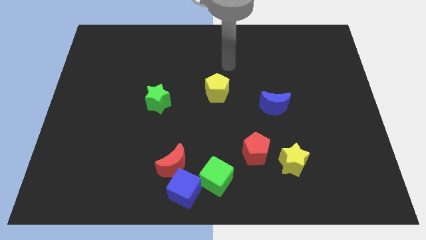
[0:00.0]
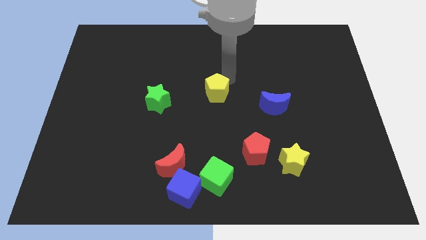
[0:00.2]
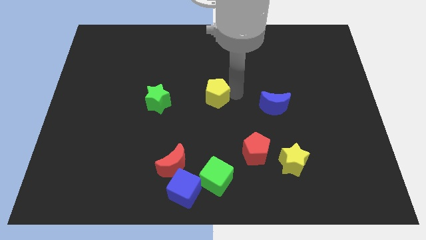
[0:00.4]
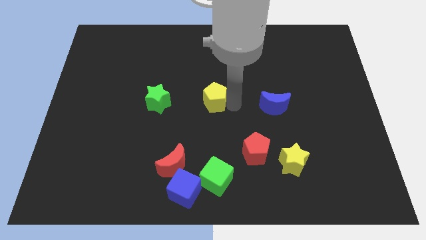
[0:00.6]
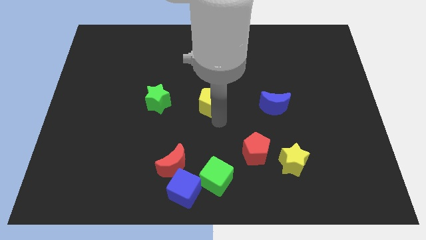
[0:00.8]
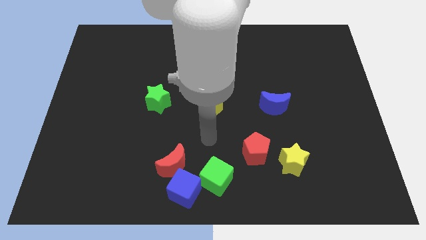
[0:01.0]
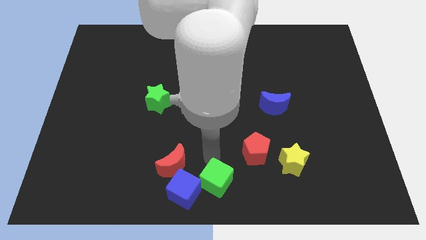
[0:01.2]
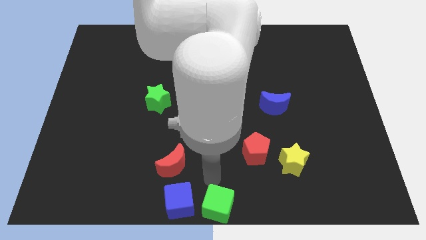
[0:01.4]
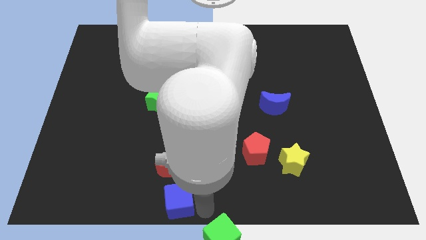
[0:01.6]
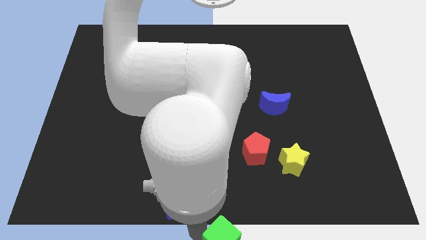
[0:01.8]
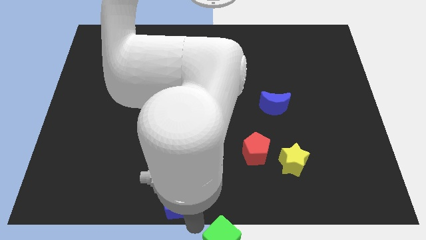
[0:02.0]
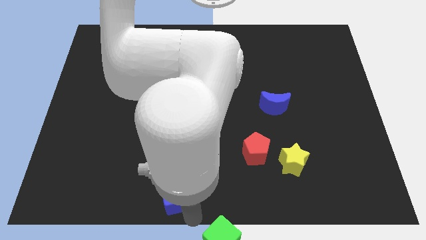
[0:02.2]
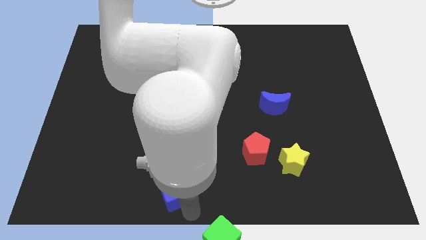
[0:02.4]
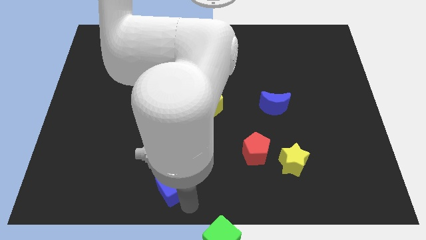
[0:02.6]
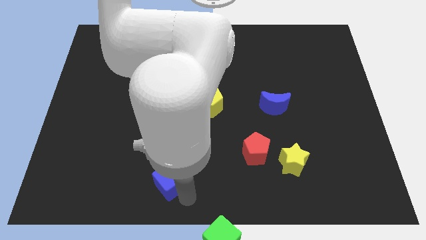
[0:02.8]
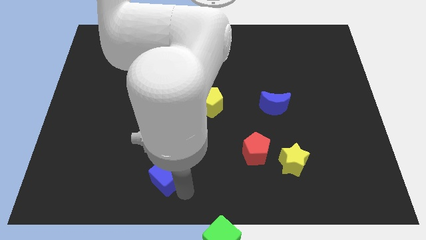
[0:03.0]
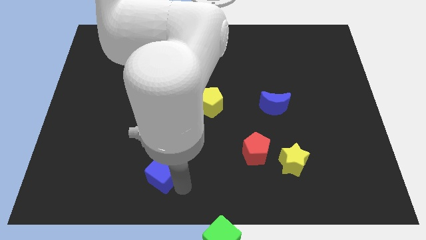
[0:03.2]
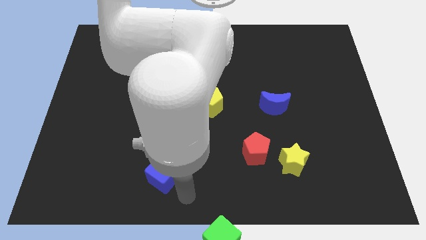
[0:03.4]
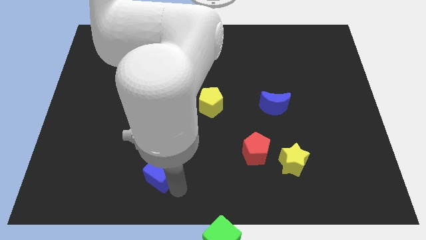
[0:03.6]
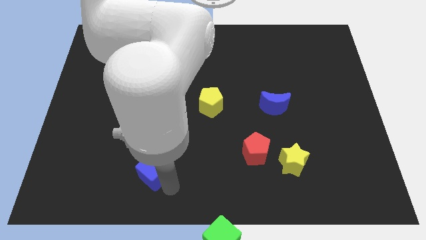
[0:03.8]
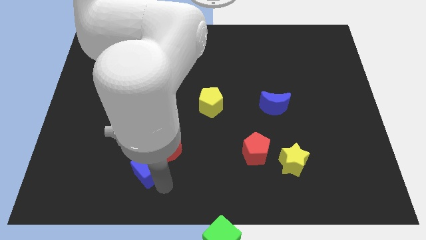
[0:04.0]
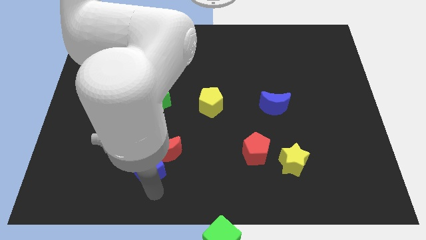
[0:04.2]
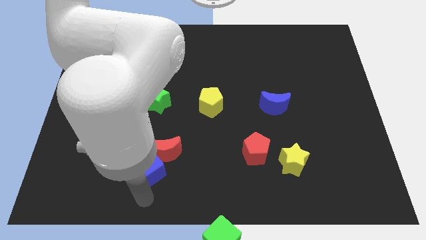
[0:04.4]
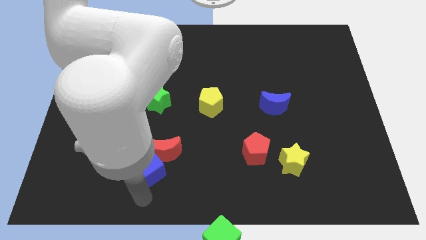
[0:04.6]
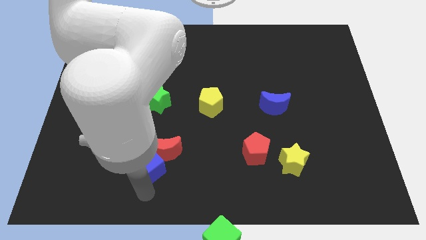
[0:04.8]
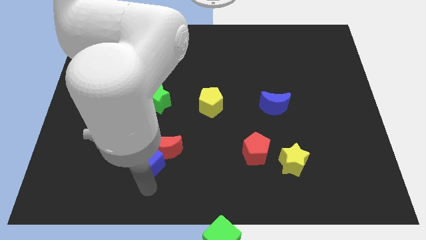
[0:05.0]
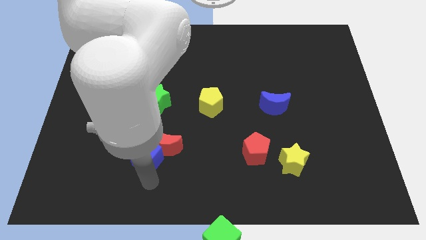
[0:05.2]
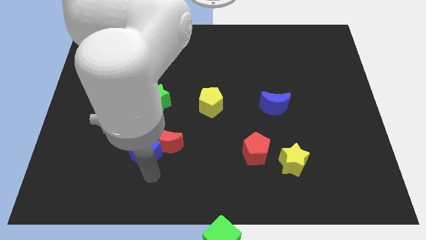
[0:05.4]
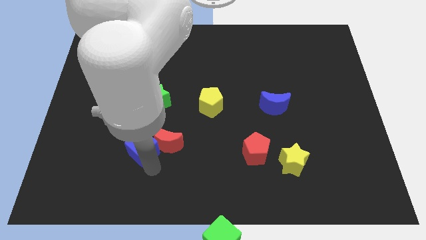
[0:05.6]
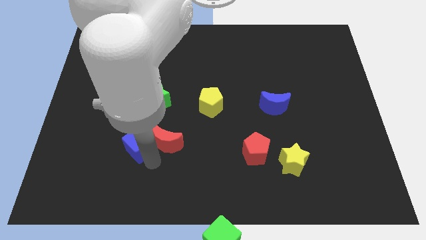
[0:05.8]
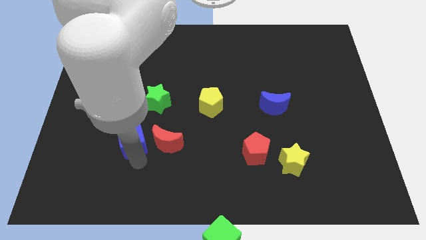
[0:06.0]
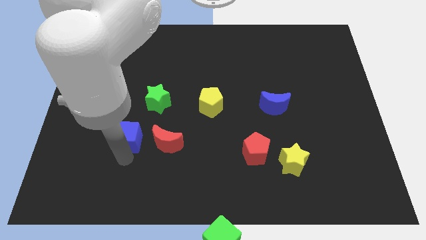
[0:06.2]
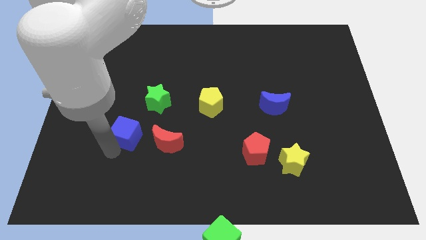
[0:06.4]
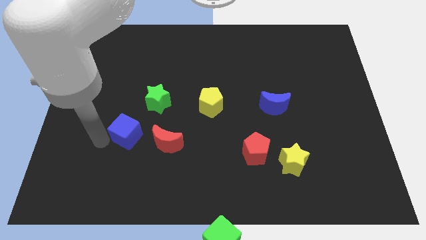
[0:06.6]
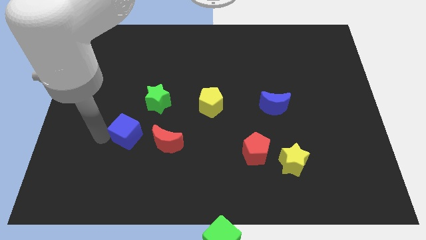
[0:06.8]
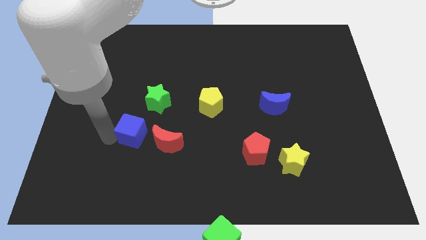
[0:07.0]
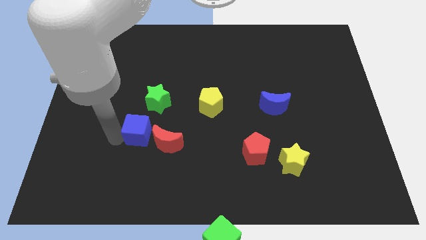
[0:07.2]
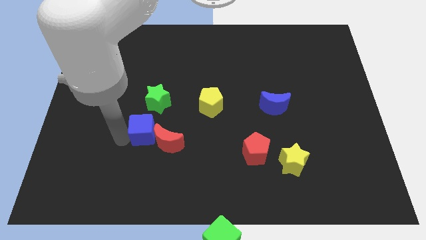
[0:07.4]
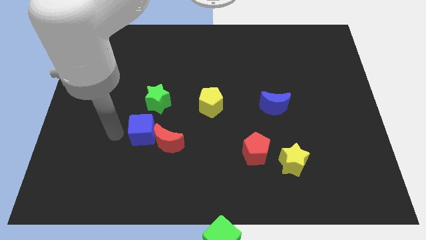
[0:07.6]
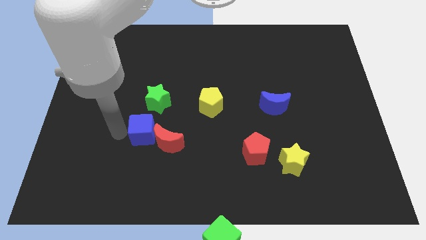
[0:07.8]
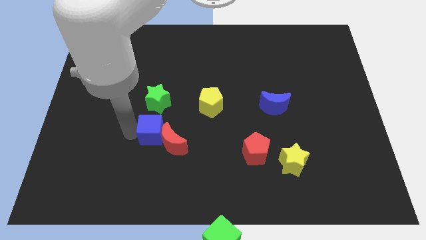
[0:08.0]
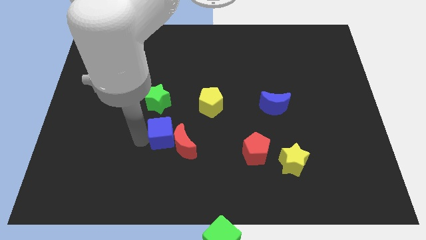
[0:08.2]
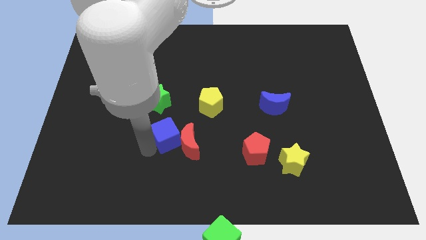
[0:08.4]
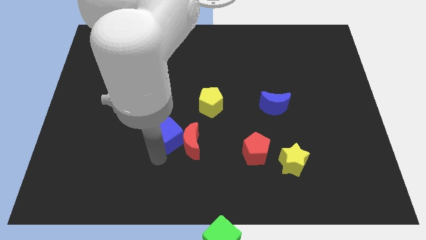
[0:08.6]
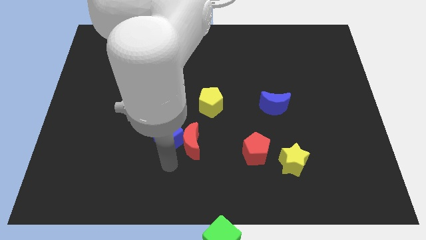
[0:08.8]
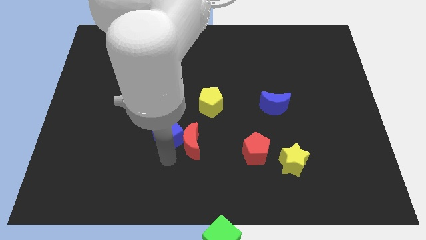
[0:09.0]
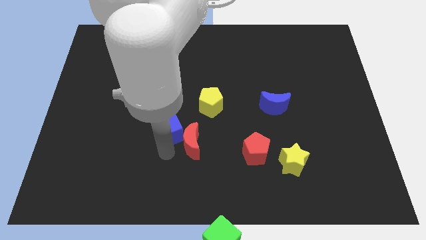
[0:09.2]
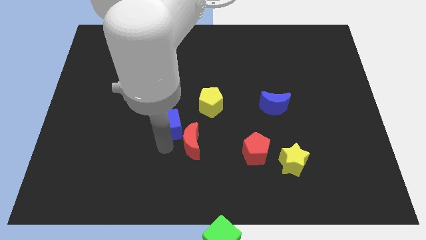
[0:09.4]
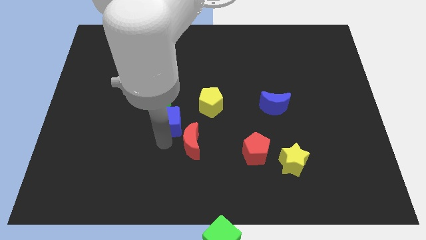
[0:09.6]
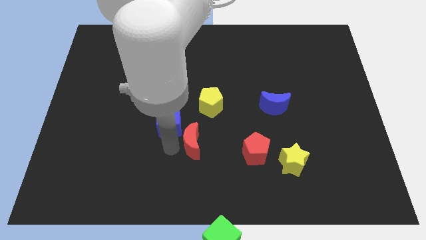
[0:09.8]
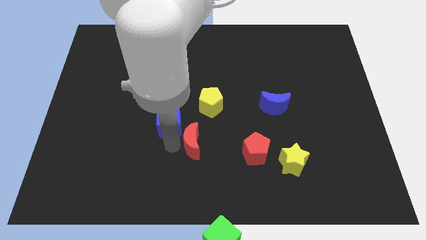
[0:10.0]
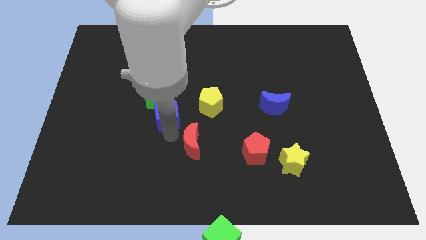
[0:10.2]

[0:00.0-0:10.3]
move the blue cube to the green star

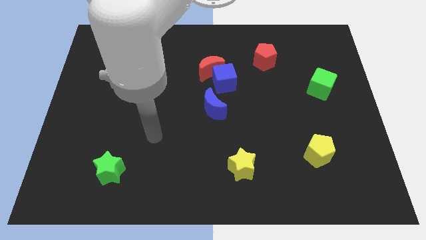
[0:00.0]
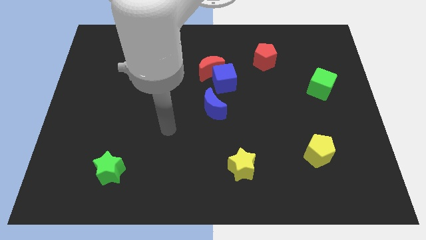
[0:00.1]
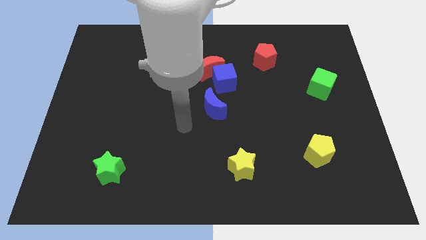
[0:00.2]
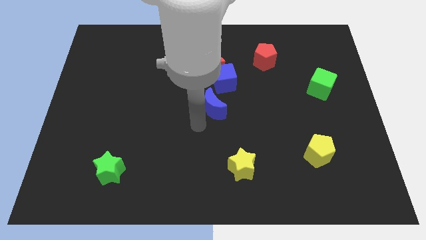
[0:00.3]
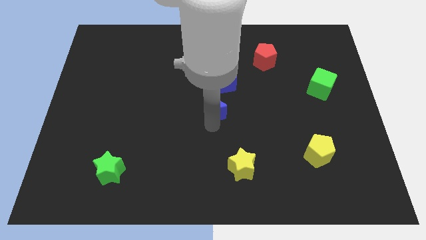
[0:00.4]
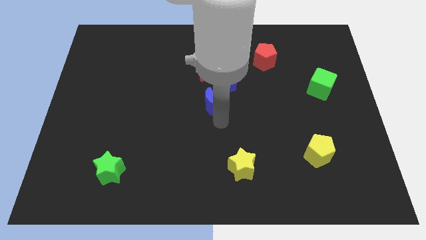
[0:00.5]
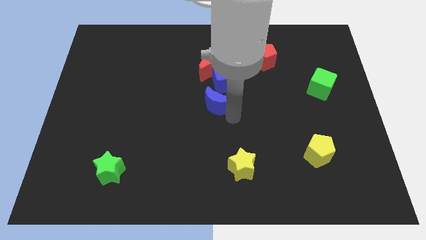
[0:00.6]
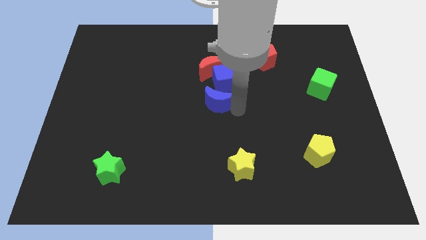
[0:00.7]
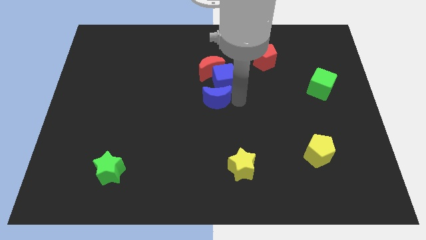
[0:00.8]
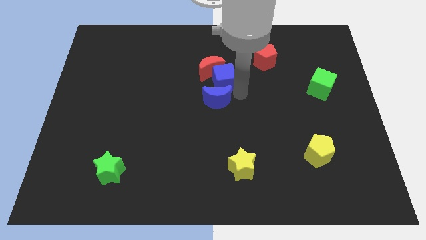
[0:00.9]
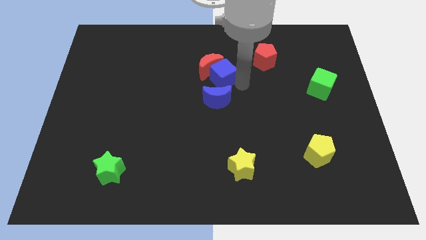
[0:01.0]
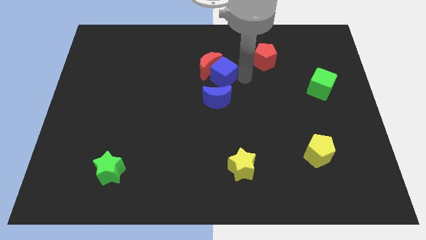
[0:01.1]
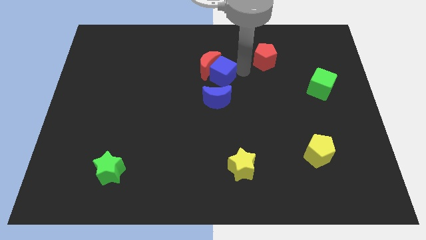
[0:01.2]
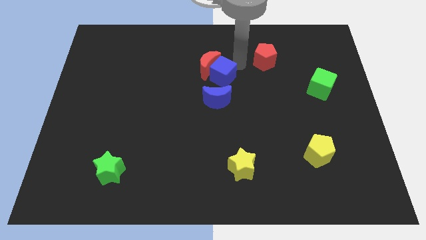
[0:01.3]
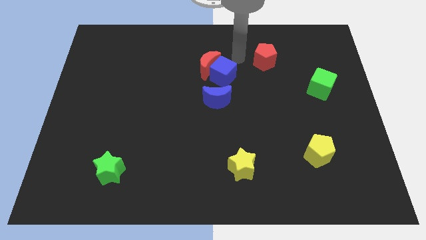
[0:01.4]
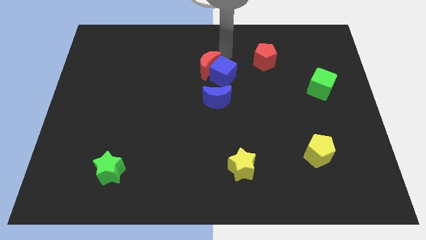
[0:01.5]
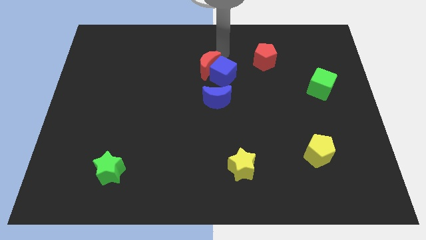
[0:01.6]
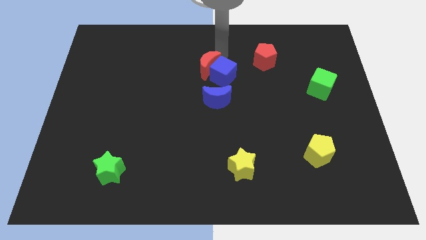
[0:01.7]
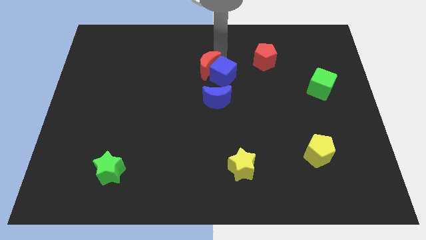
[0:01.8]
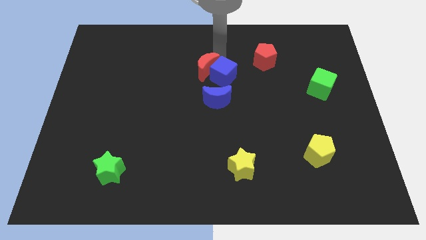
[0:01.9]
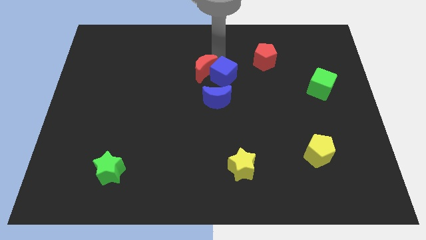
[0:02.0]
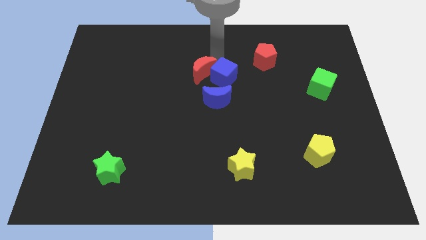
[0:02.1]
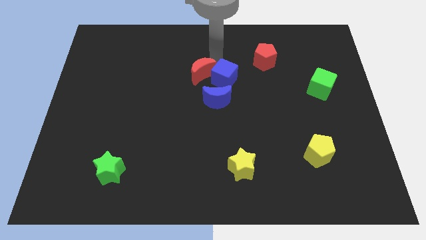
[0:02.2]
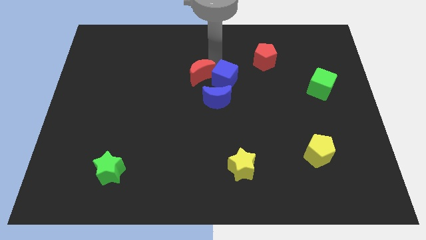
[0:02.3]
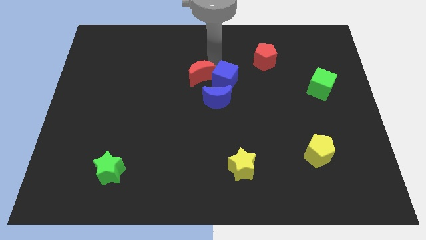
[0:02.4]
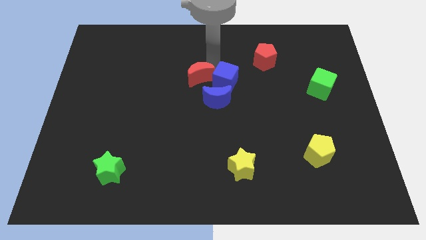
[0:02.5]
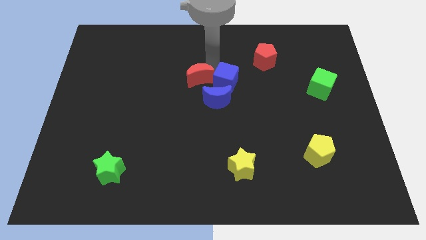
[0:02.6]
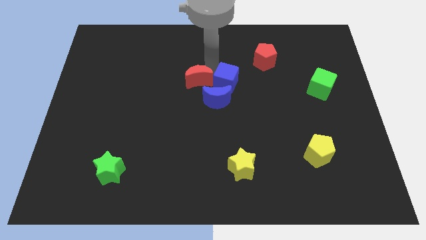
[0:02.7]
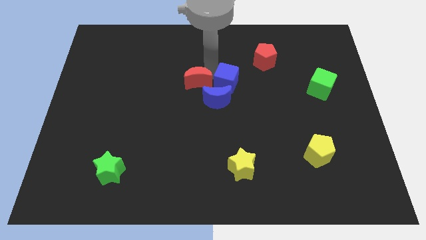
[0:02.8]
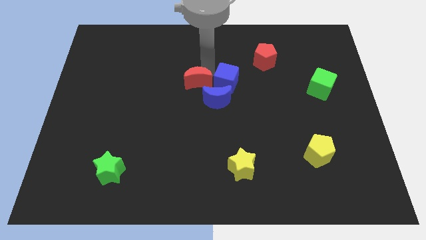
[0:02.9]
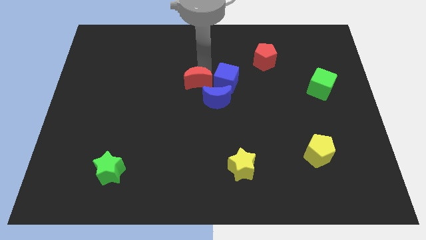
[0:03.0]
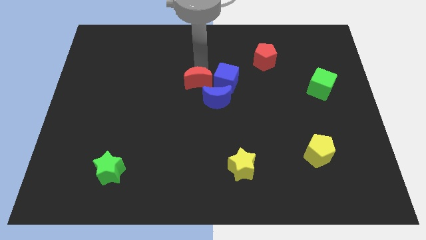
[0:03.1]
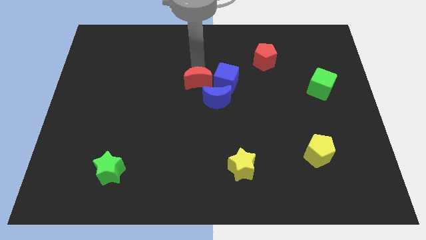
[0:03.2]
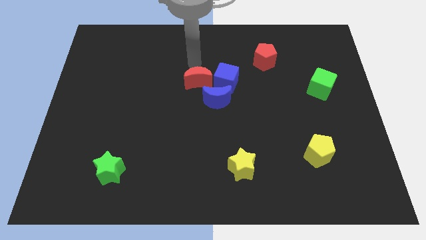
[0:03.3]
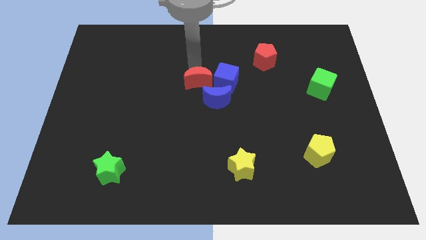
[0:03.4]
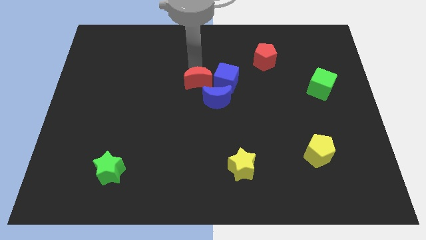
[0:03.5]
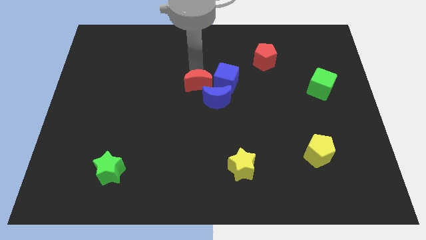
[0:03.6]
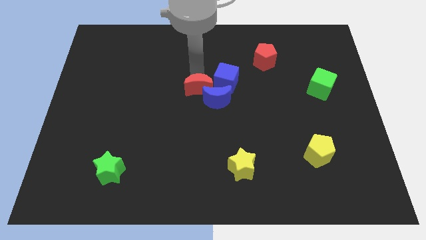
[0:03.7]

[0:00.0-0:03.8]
slide the red moon towards the blue moon
